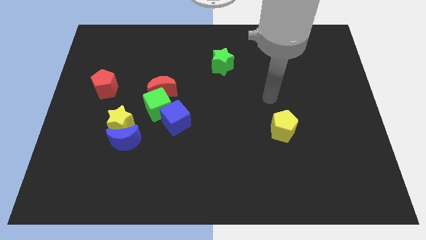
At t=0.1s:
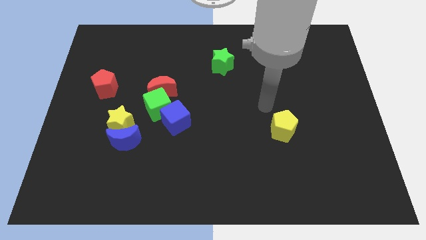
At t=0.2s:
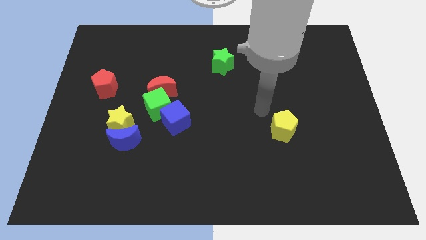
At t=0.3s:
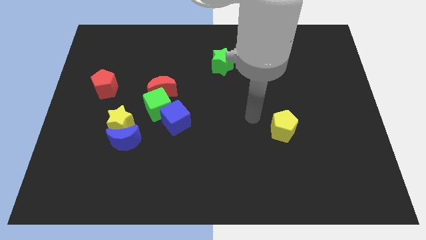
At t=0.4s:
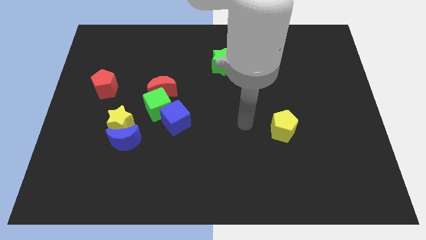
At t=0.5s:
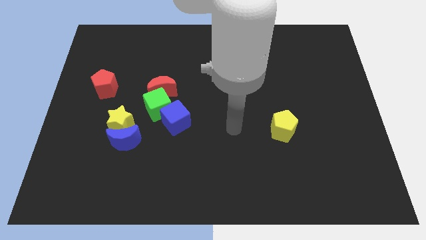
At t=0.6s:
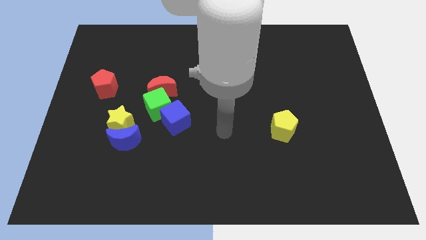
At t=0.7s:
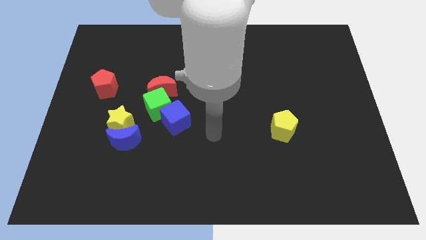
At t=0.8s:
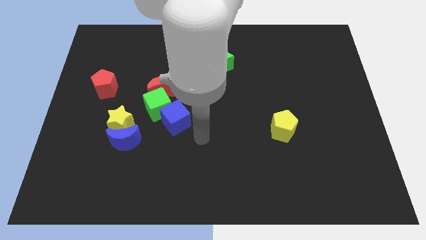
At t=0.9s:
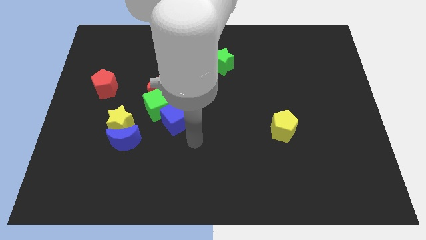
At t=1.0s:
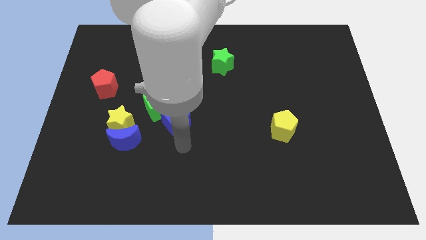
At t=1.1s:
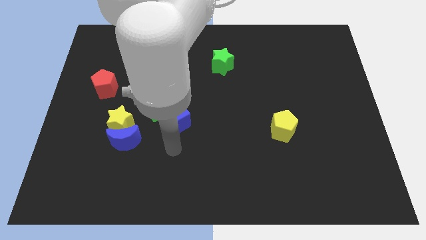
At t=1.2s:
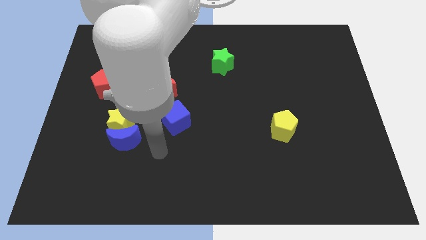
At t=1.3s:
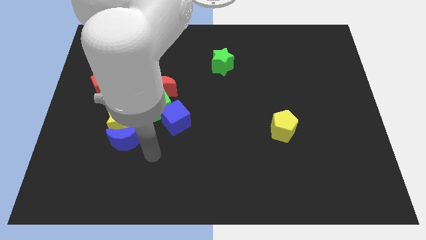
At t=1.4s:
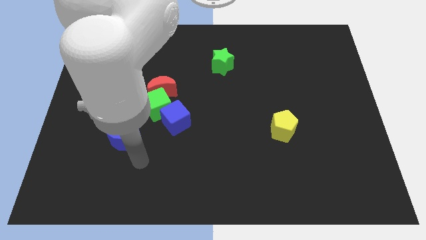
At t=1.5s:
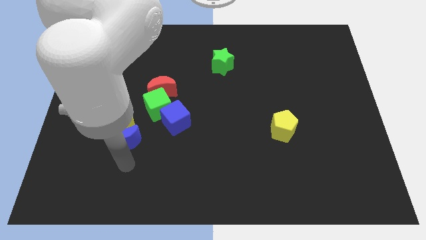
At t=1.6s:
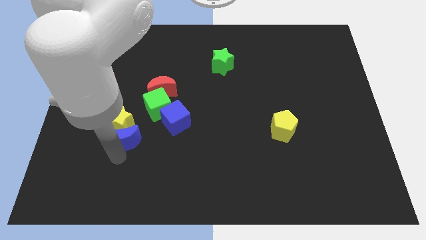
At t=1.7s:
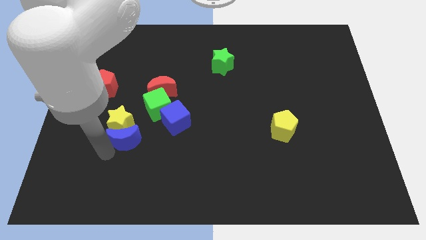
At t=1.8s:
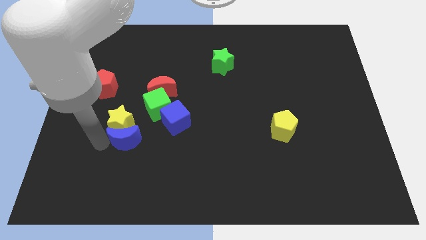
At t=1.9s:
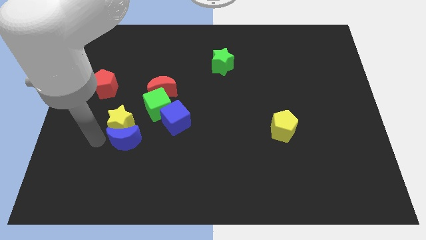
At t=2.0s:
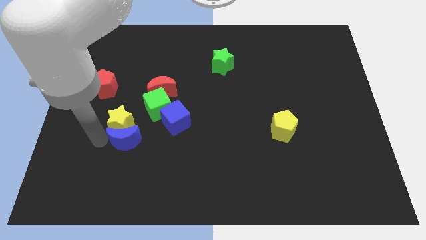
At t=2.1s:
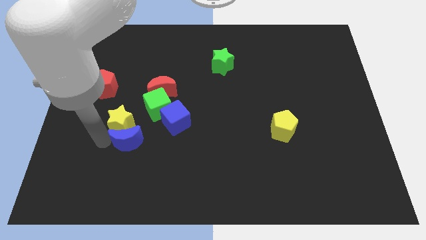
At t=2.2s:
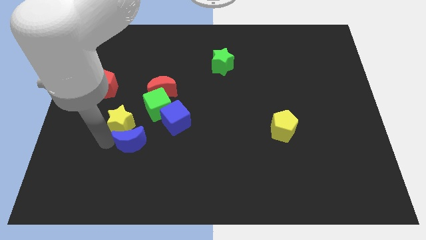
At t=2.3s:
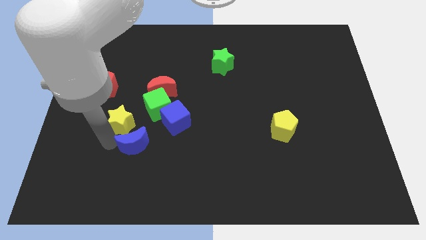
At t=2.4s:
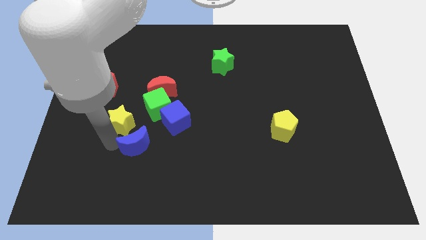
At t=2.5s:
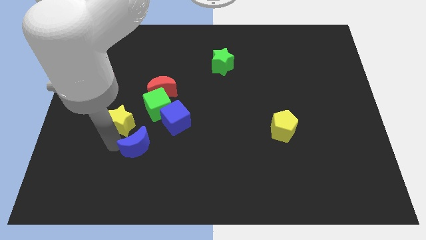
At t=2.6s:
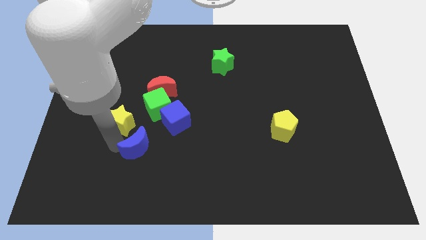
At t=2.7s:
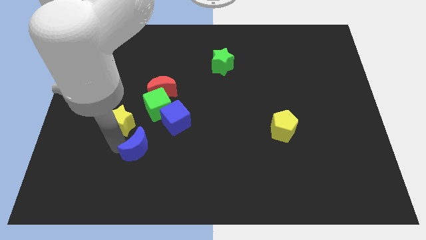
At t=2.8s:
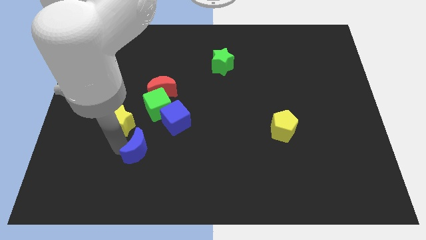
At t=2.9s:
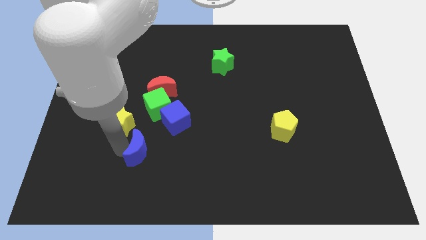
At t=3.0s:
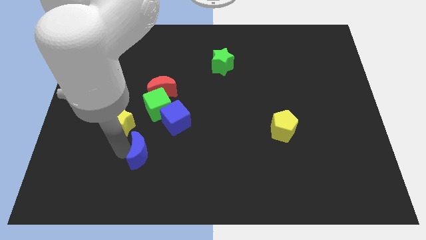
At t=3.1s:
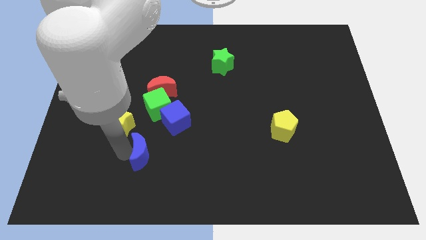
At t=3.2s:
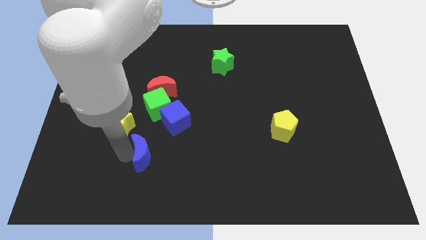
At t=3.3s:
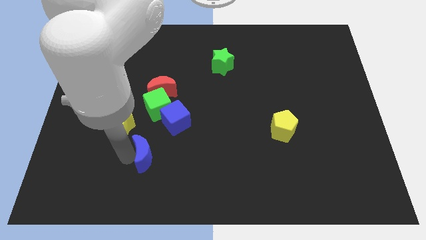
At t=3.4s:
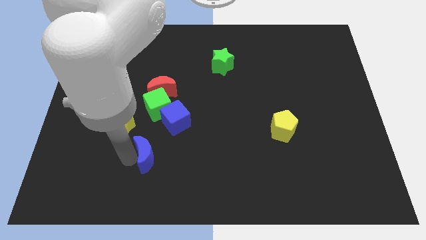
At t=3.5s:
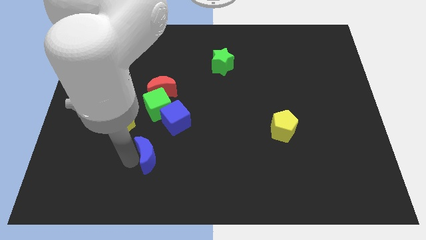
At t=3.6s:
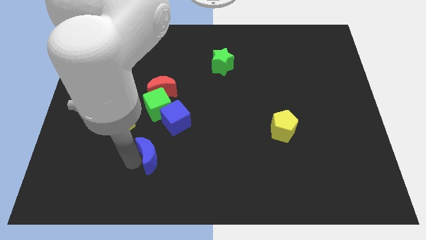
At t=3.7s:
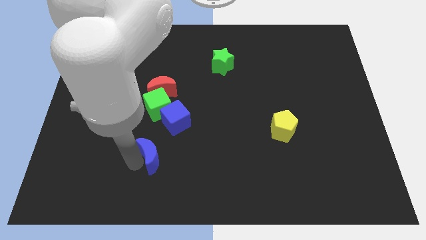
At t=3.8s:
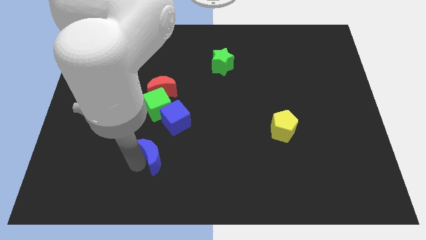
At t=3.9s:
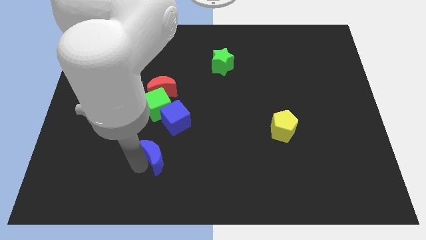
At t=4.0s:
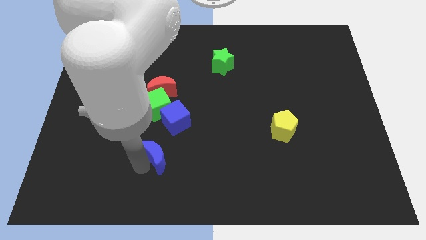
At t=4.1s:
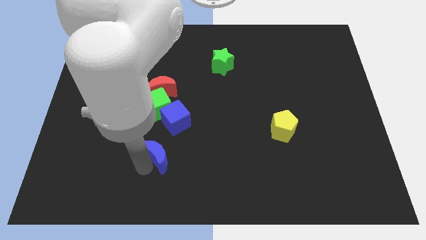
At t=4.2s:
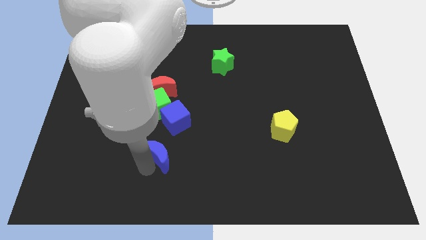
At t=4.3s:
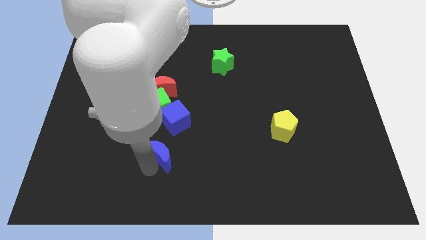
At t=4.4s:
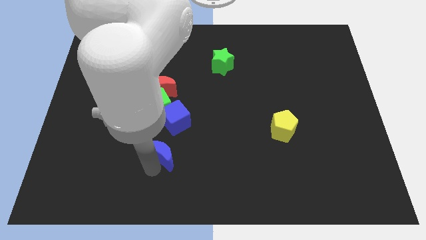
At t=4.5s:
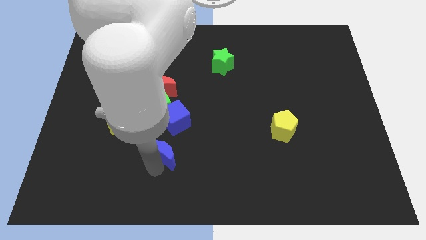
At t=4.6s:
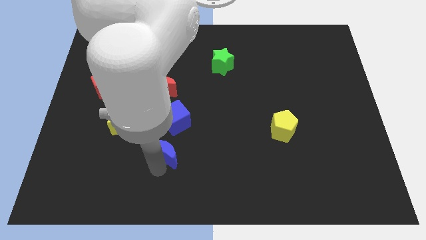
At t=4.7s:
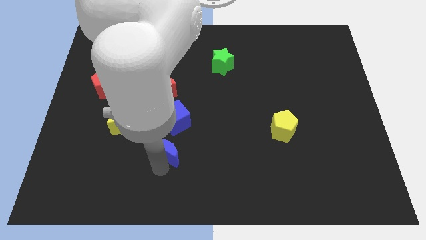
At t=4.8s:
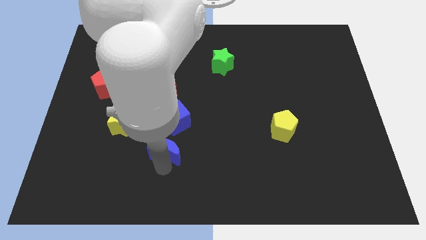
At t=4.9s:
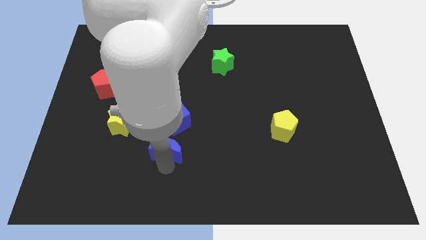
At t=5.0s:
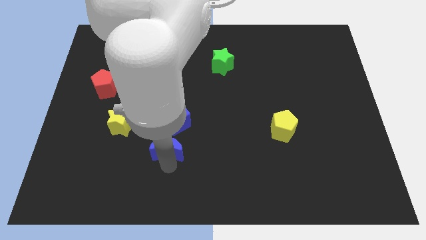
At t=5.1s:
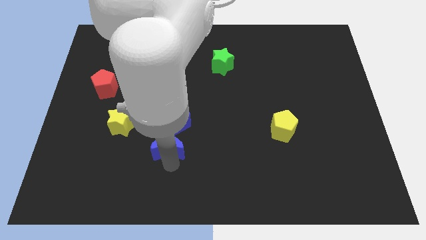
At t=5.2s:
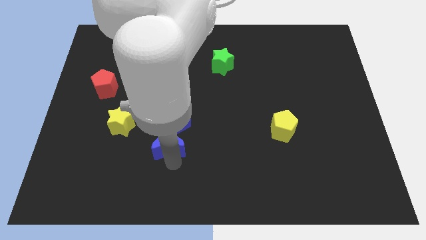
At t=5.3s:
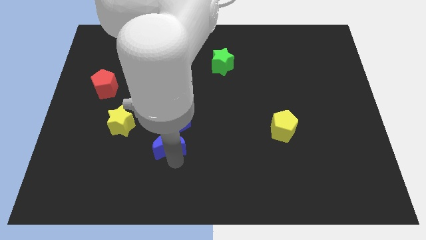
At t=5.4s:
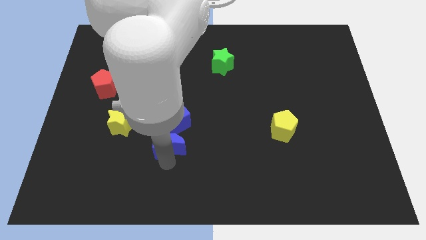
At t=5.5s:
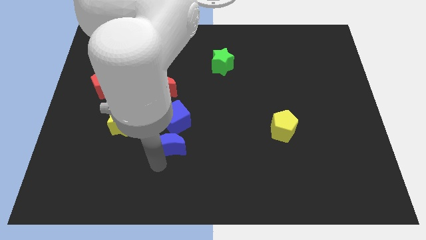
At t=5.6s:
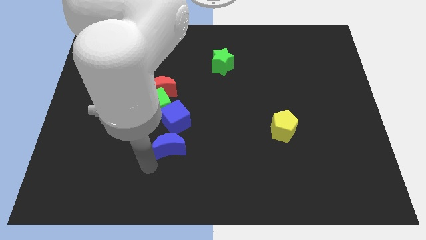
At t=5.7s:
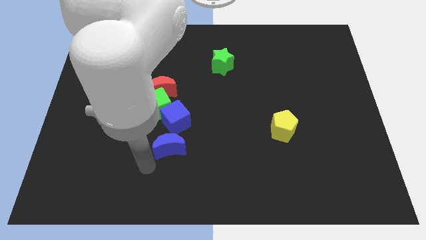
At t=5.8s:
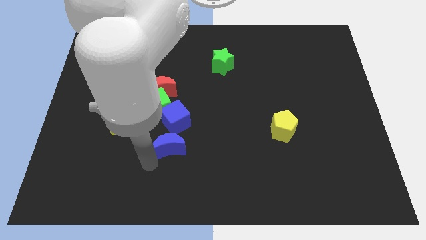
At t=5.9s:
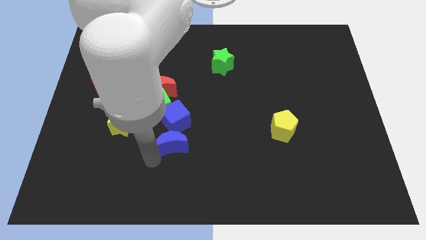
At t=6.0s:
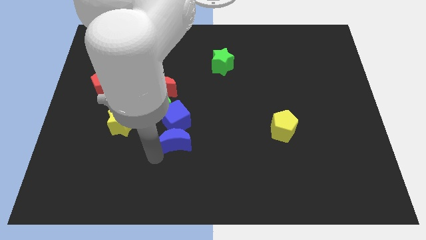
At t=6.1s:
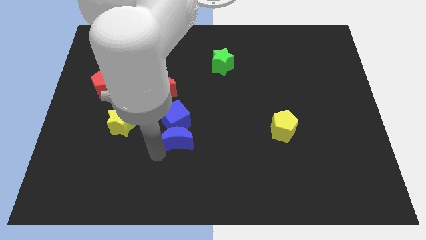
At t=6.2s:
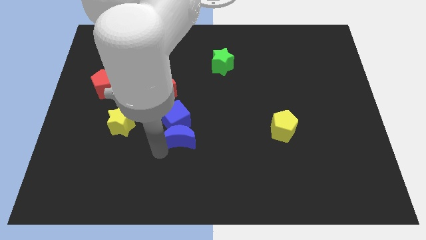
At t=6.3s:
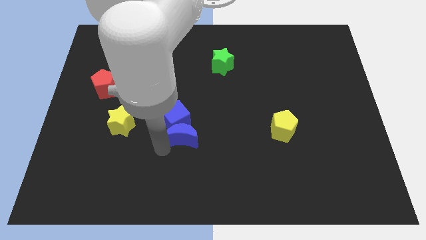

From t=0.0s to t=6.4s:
slide the blue moon up and then right a little bit

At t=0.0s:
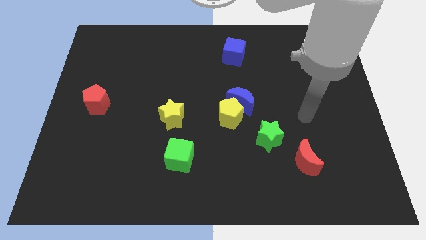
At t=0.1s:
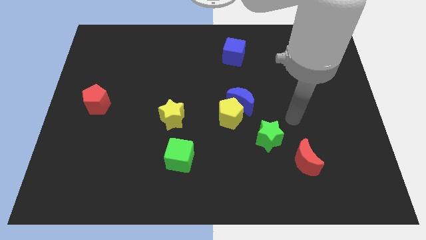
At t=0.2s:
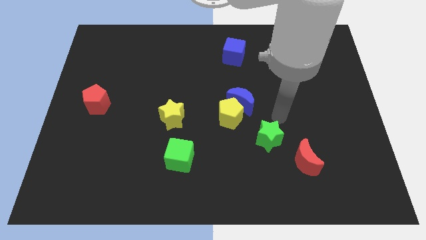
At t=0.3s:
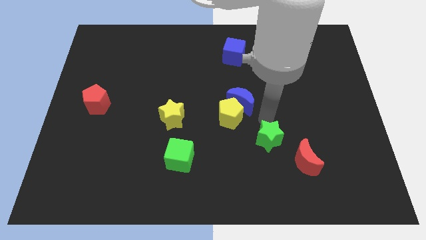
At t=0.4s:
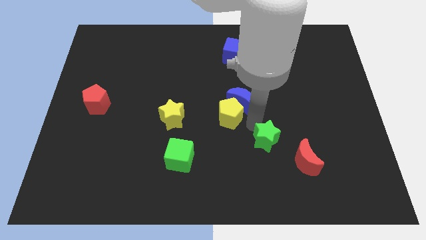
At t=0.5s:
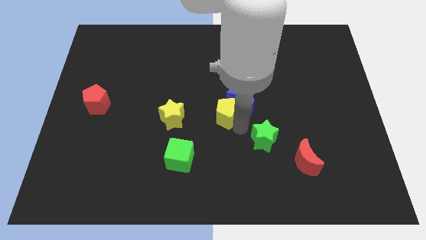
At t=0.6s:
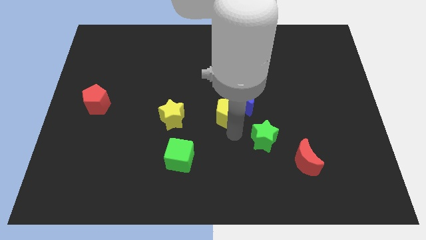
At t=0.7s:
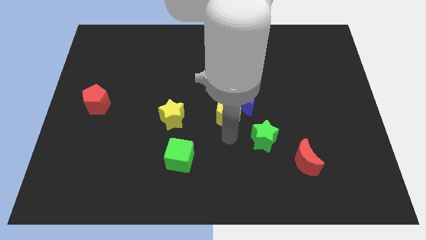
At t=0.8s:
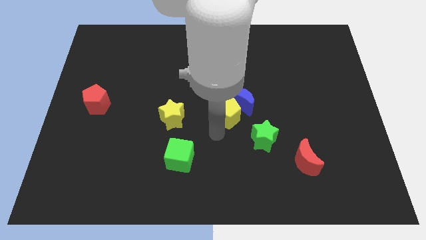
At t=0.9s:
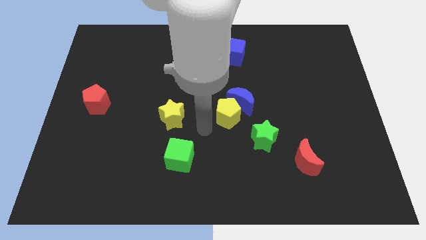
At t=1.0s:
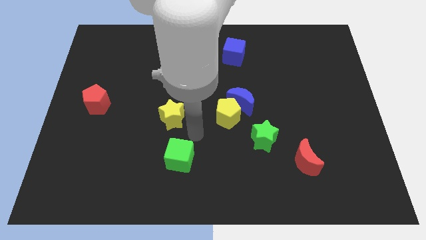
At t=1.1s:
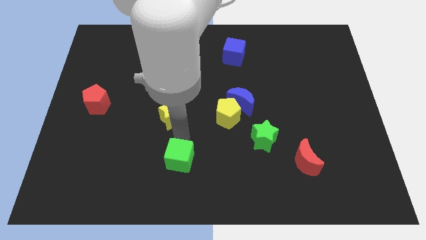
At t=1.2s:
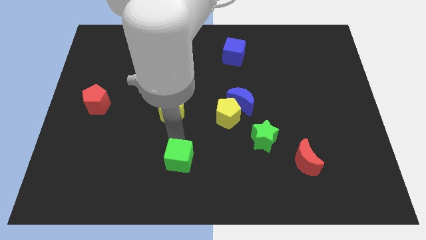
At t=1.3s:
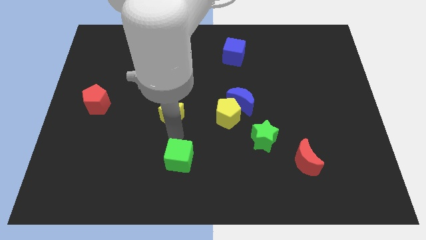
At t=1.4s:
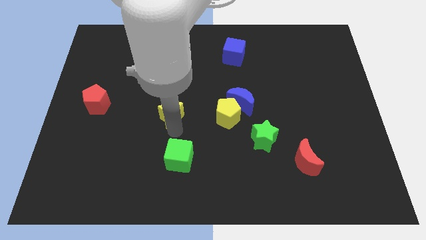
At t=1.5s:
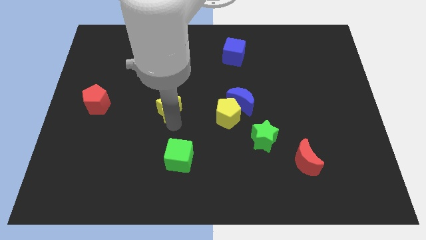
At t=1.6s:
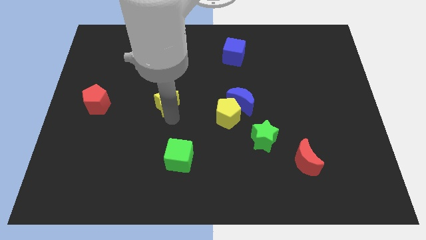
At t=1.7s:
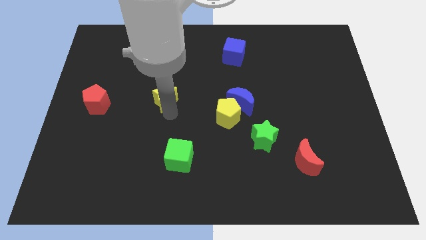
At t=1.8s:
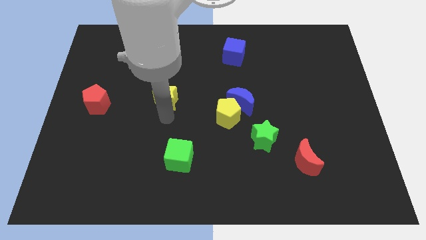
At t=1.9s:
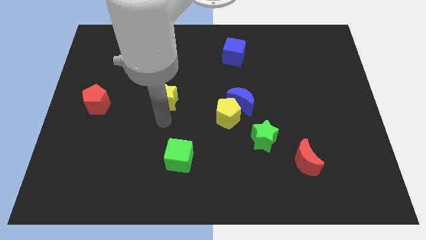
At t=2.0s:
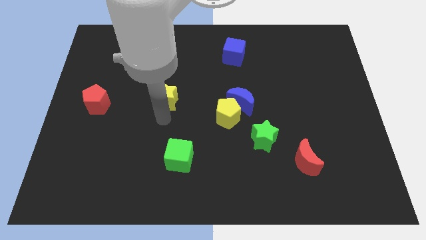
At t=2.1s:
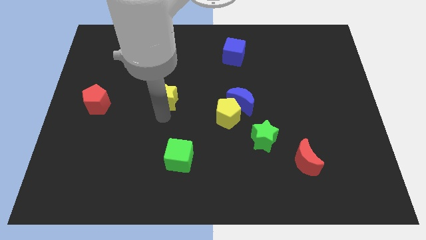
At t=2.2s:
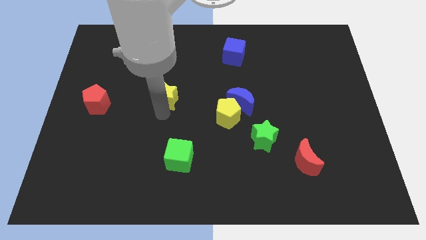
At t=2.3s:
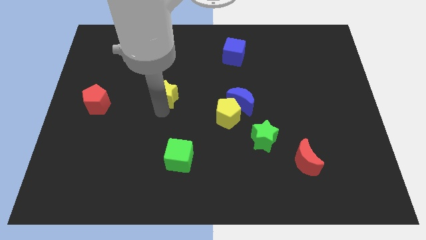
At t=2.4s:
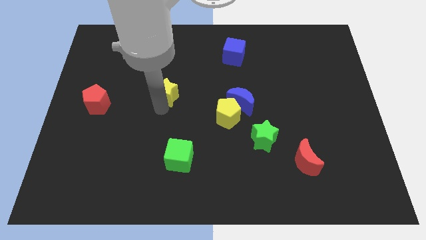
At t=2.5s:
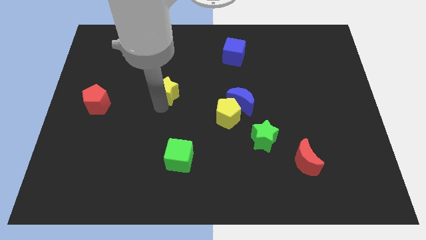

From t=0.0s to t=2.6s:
slightly move the yellow star up
